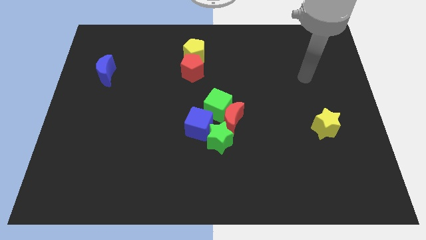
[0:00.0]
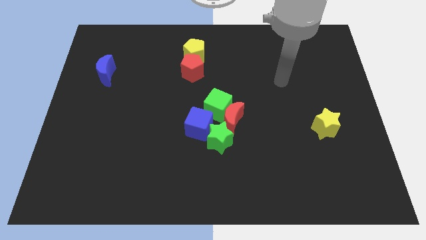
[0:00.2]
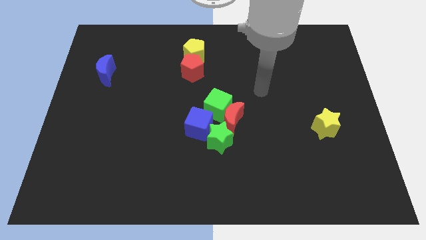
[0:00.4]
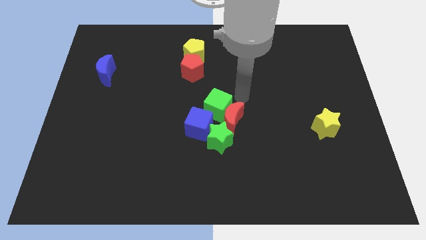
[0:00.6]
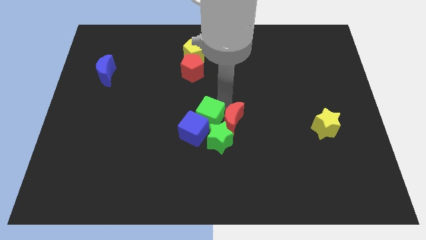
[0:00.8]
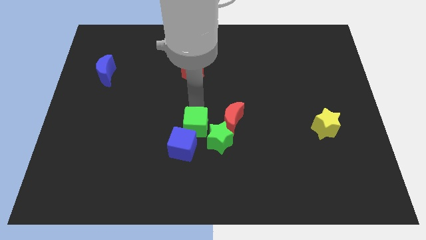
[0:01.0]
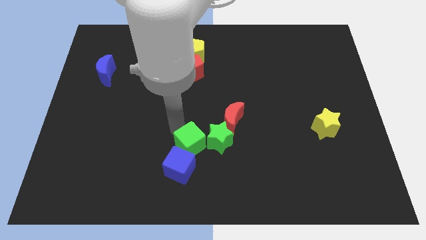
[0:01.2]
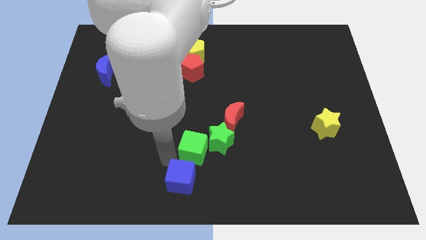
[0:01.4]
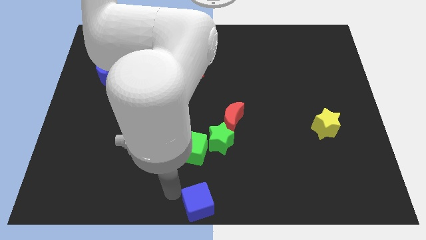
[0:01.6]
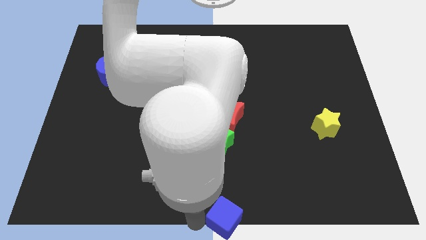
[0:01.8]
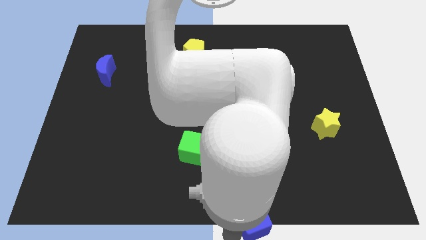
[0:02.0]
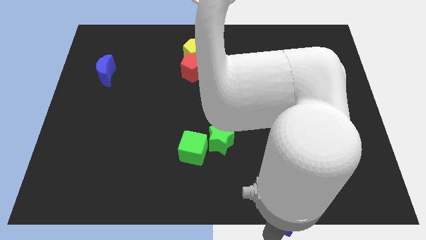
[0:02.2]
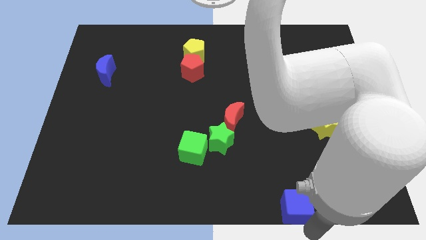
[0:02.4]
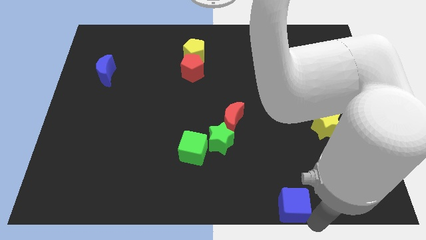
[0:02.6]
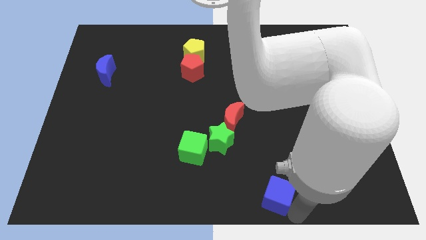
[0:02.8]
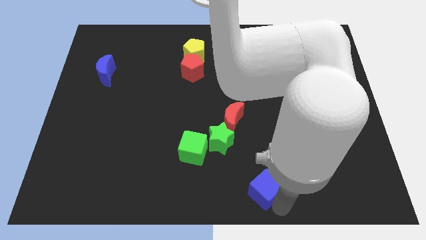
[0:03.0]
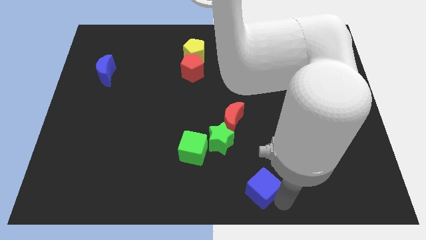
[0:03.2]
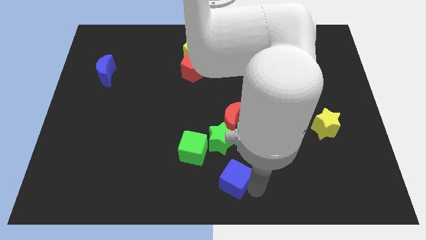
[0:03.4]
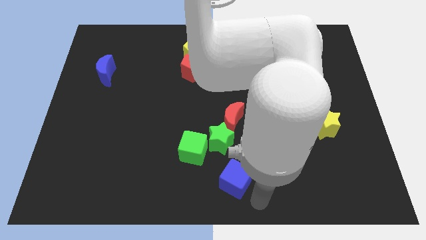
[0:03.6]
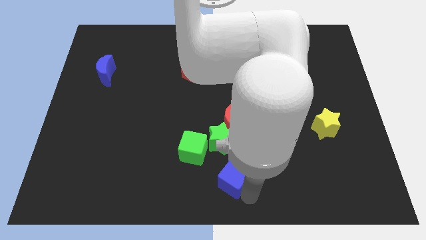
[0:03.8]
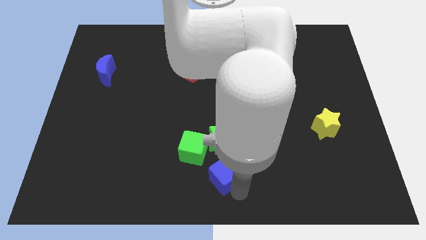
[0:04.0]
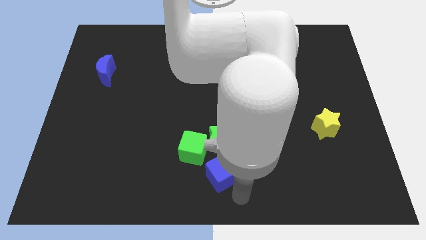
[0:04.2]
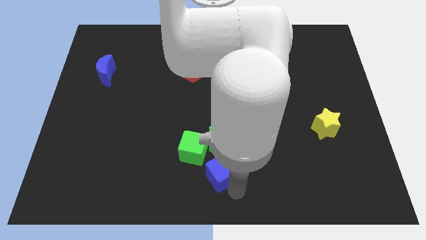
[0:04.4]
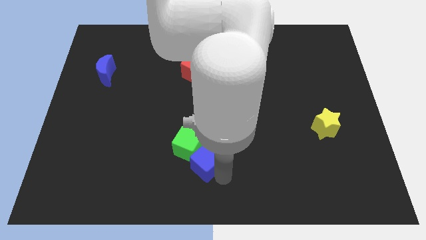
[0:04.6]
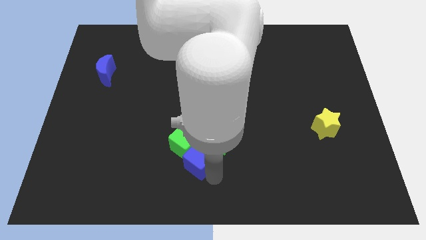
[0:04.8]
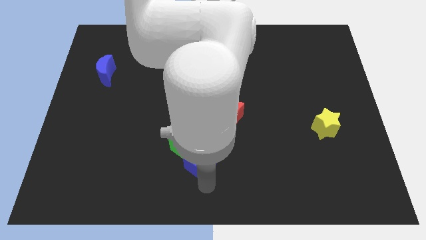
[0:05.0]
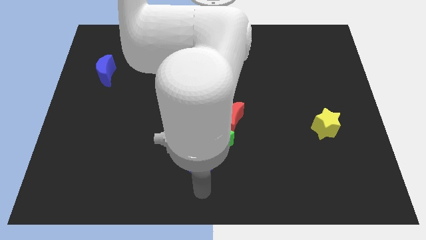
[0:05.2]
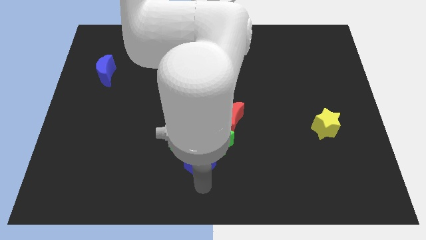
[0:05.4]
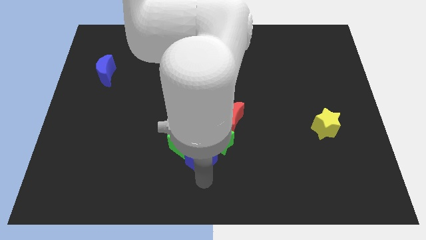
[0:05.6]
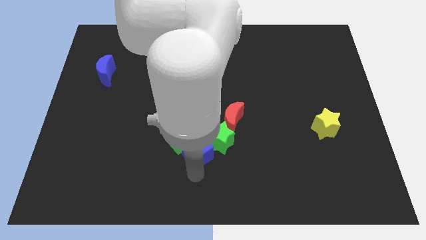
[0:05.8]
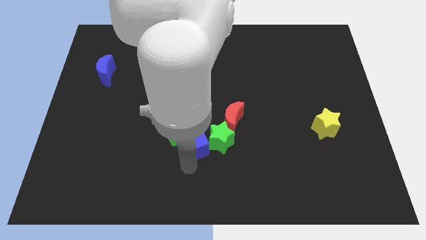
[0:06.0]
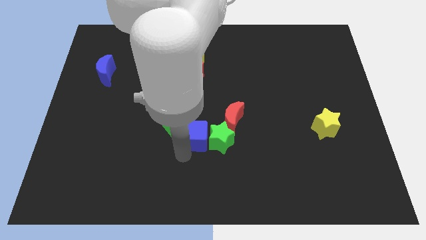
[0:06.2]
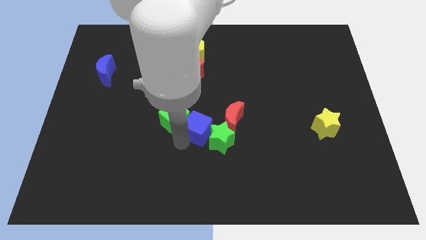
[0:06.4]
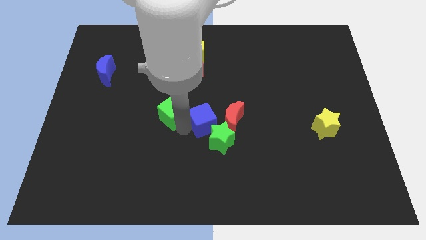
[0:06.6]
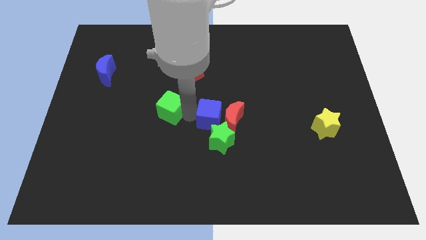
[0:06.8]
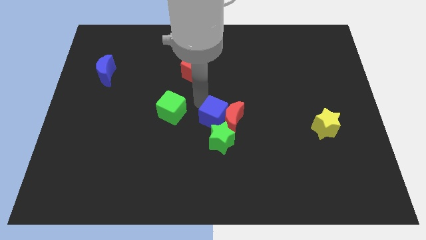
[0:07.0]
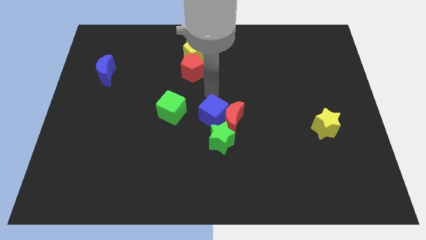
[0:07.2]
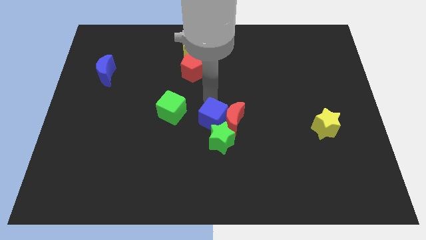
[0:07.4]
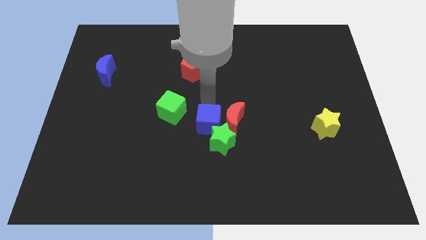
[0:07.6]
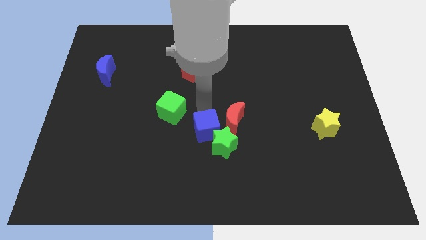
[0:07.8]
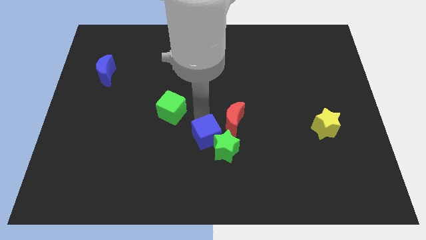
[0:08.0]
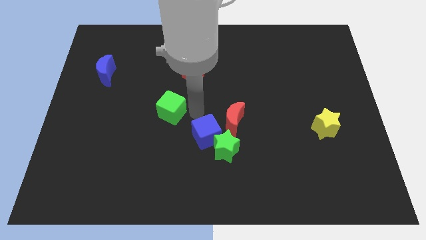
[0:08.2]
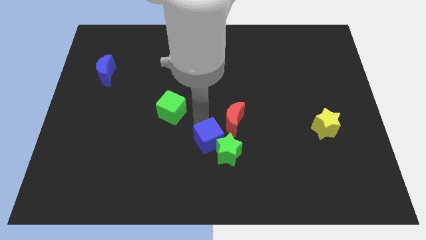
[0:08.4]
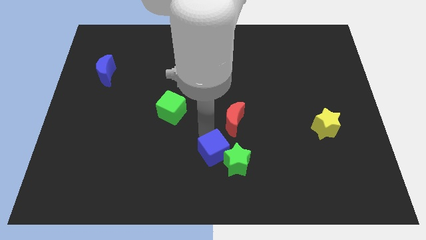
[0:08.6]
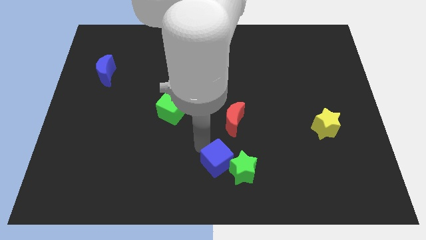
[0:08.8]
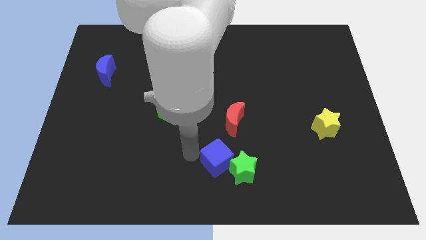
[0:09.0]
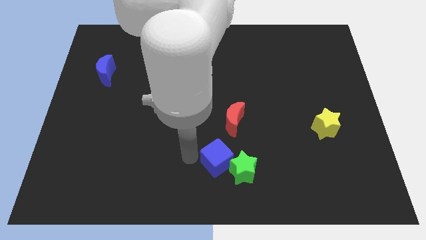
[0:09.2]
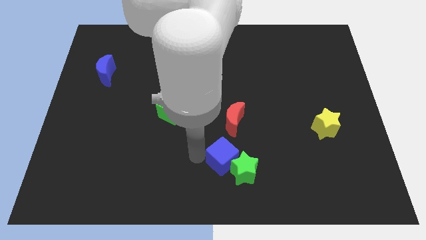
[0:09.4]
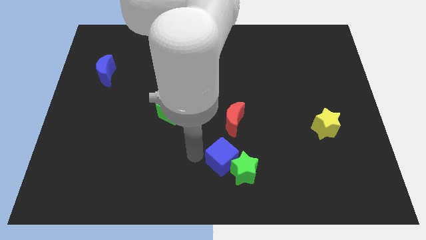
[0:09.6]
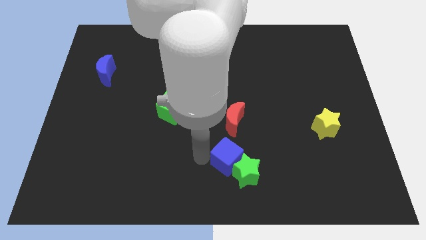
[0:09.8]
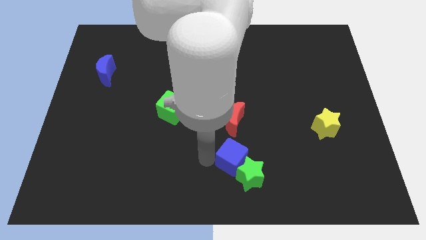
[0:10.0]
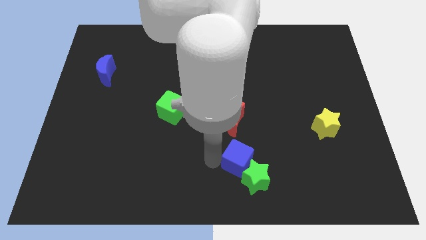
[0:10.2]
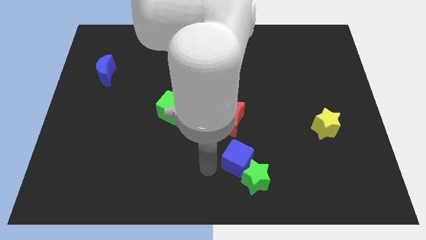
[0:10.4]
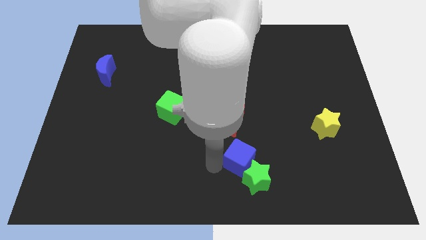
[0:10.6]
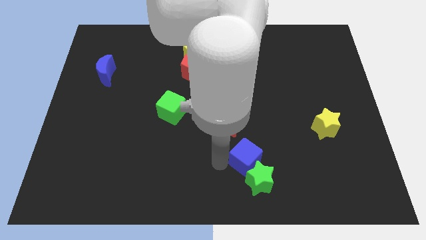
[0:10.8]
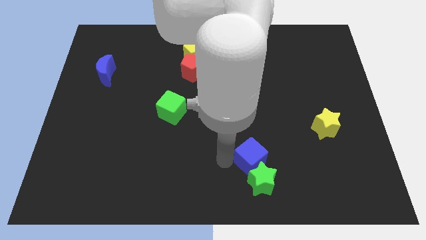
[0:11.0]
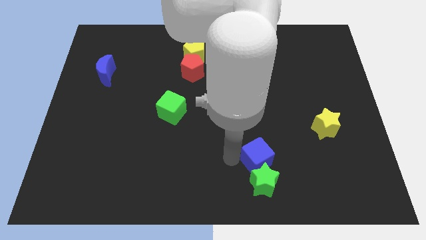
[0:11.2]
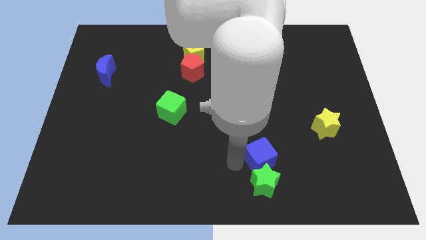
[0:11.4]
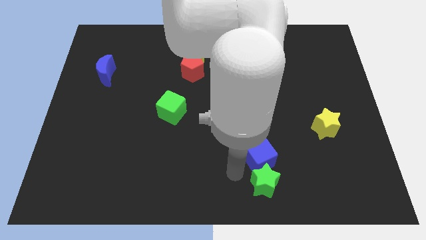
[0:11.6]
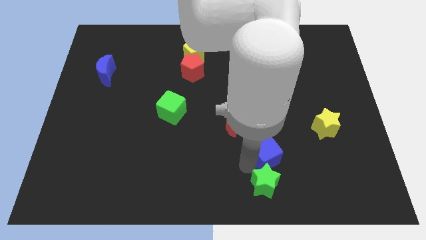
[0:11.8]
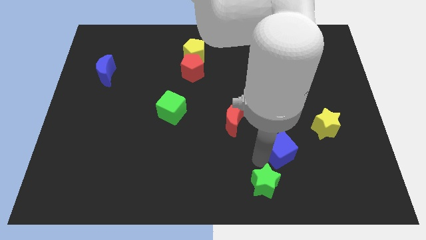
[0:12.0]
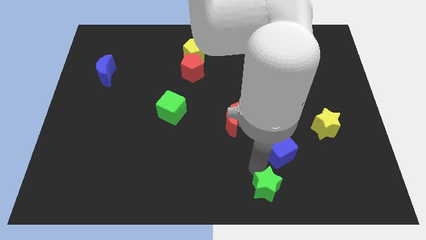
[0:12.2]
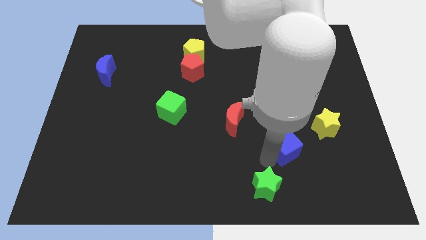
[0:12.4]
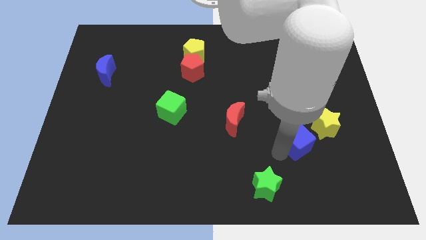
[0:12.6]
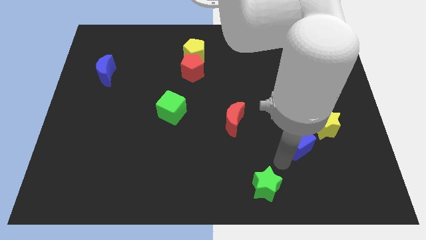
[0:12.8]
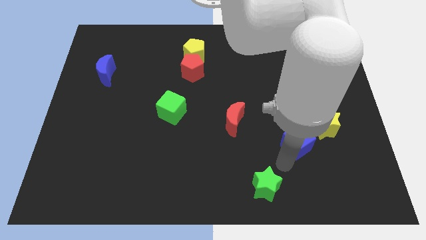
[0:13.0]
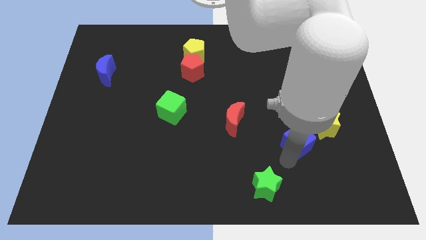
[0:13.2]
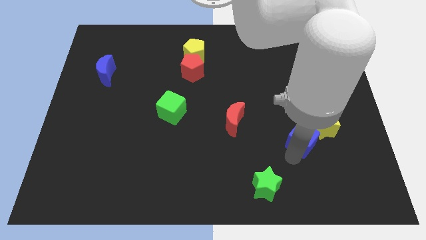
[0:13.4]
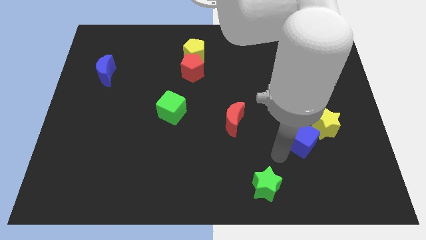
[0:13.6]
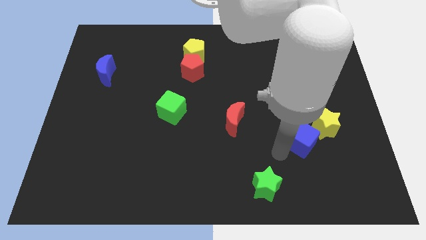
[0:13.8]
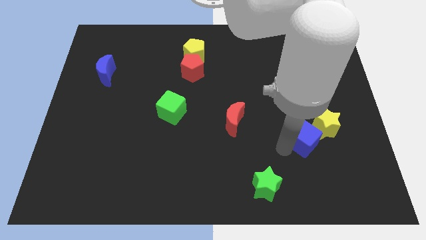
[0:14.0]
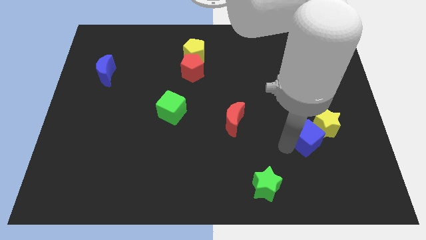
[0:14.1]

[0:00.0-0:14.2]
slide the blue cube next to the yellow star
